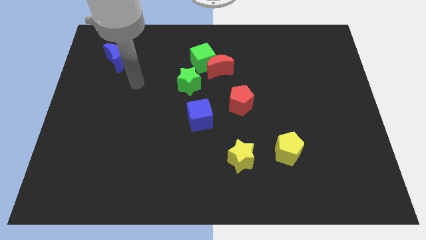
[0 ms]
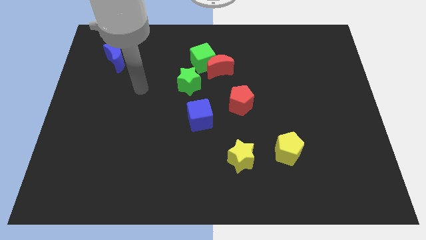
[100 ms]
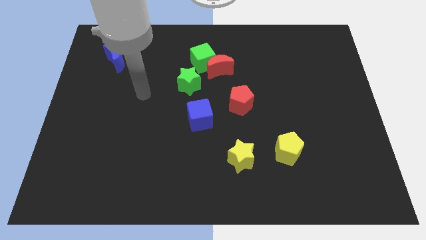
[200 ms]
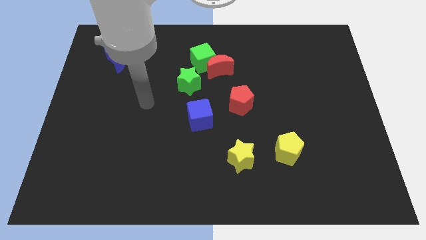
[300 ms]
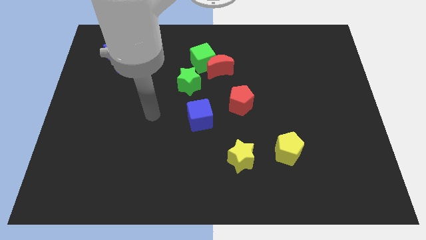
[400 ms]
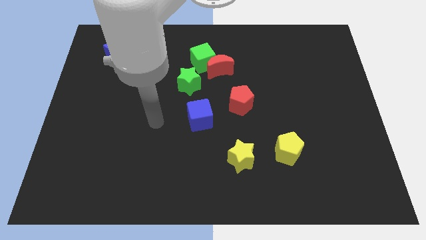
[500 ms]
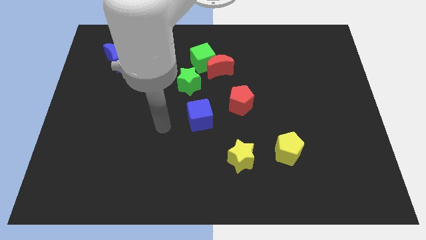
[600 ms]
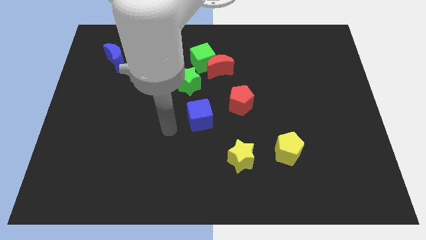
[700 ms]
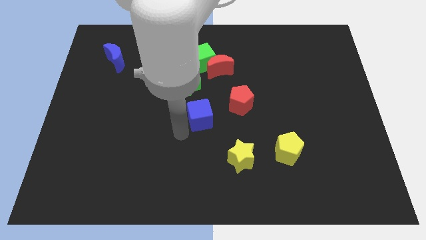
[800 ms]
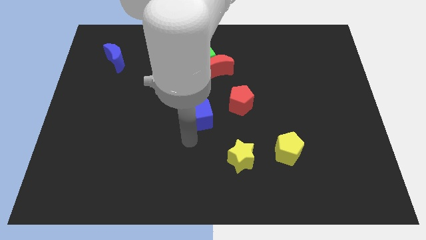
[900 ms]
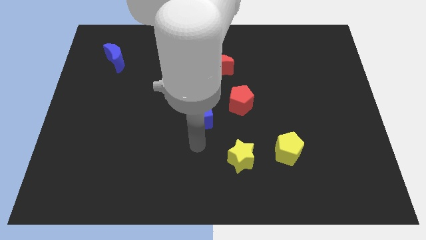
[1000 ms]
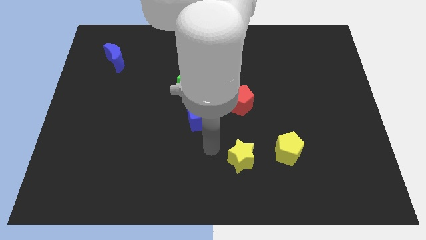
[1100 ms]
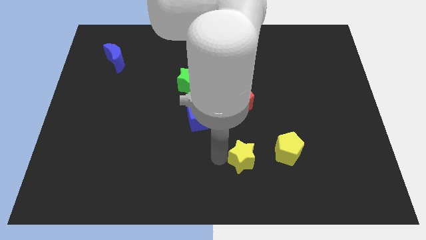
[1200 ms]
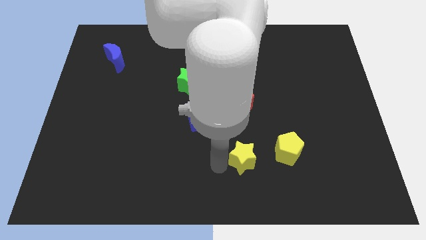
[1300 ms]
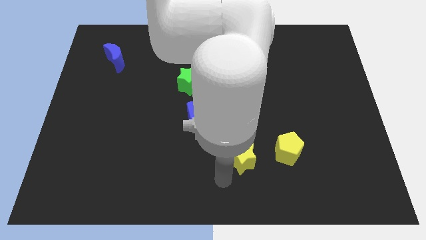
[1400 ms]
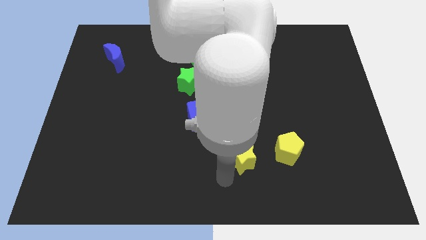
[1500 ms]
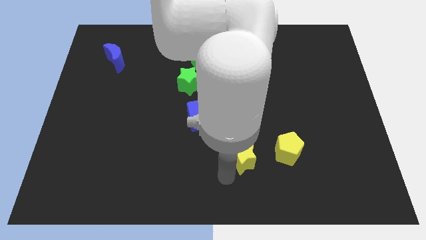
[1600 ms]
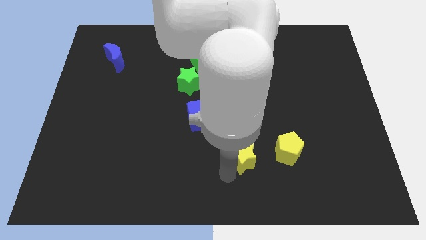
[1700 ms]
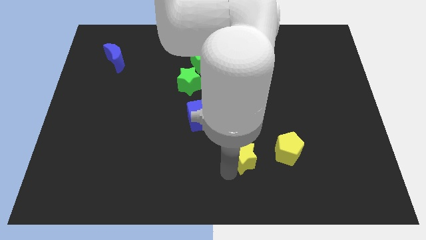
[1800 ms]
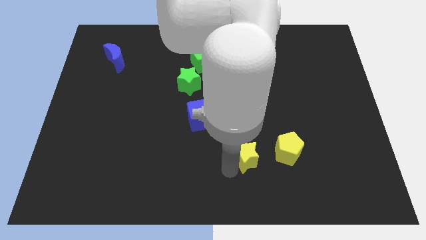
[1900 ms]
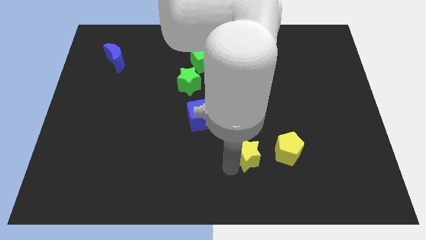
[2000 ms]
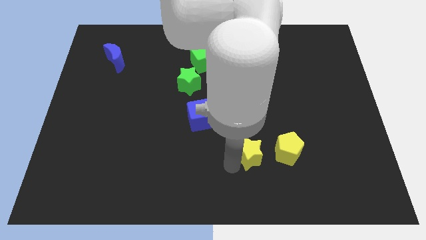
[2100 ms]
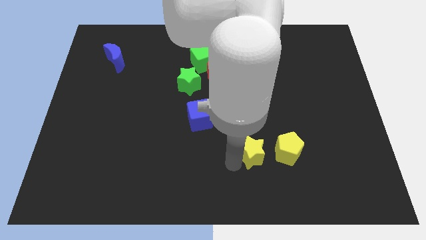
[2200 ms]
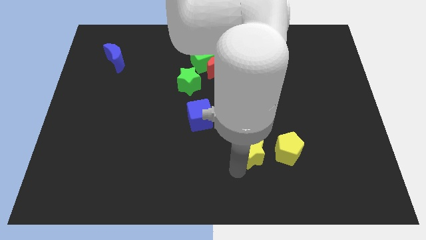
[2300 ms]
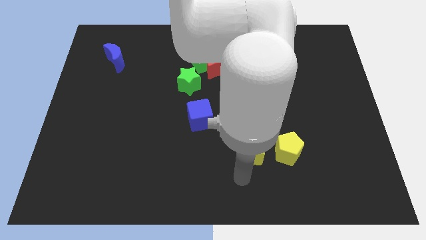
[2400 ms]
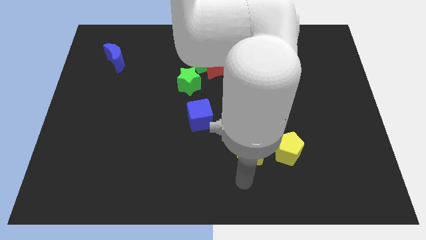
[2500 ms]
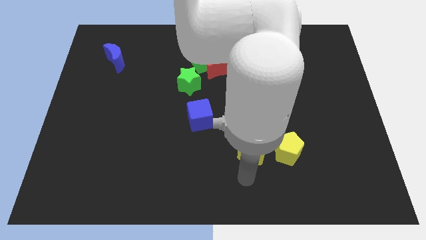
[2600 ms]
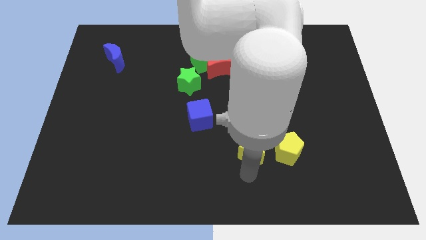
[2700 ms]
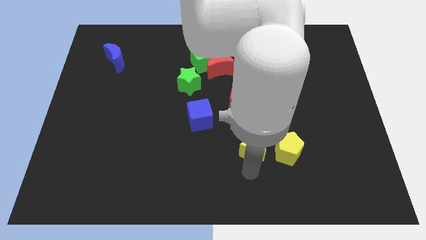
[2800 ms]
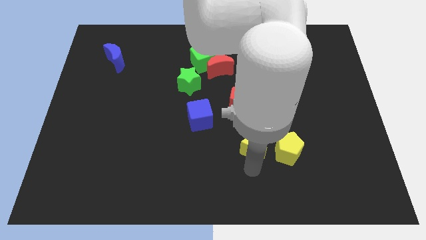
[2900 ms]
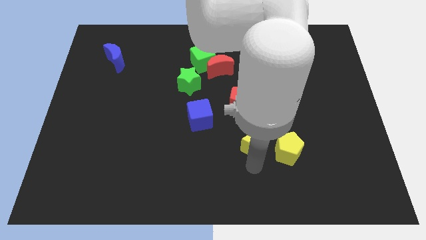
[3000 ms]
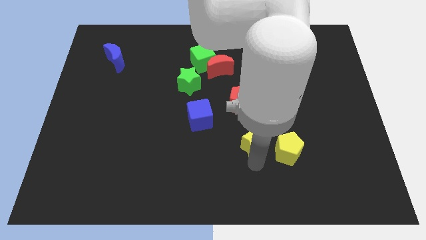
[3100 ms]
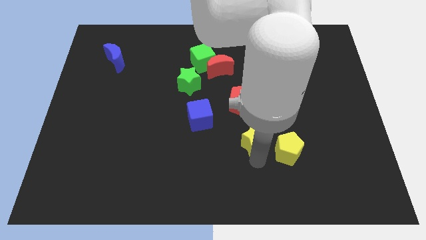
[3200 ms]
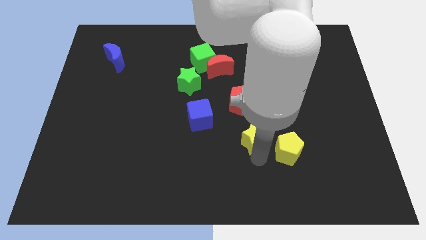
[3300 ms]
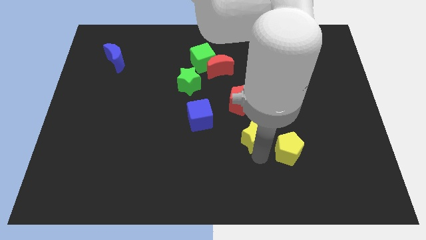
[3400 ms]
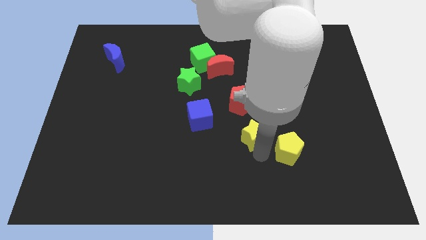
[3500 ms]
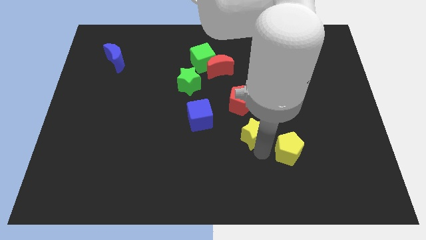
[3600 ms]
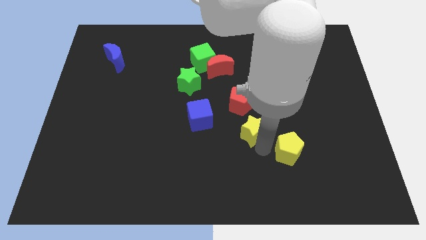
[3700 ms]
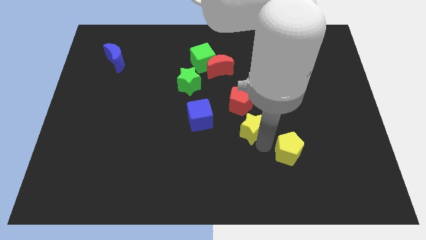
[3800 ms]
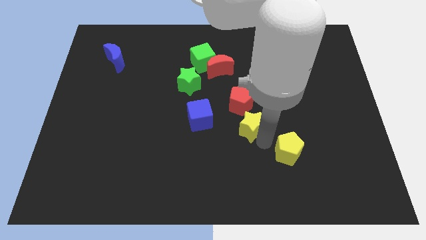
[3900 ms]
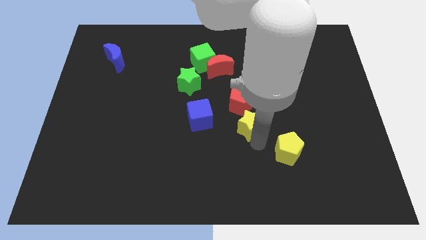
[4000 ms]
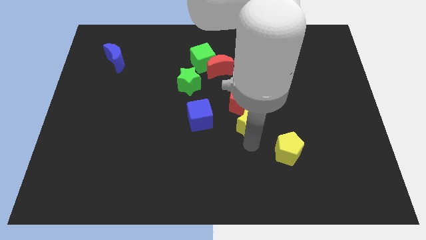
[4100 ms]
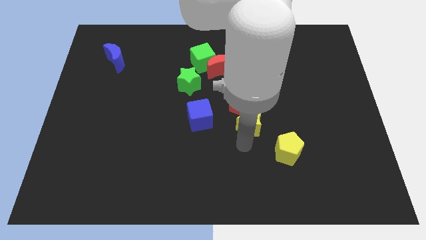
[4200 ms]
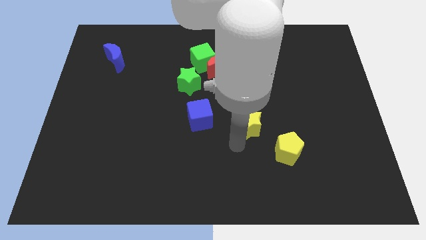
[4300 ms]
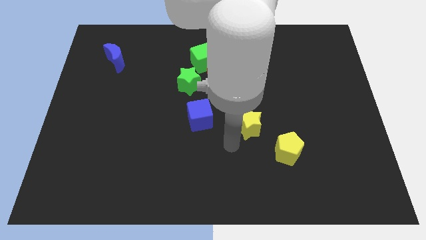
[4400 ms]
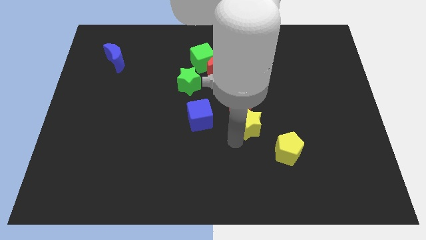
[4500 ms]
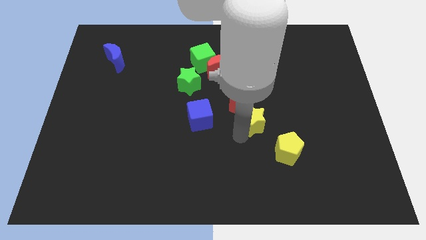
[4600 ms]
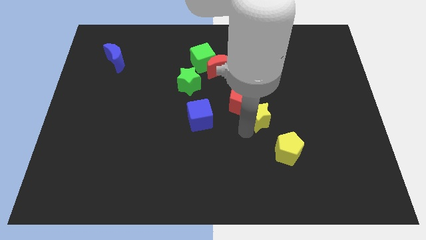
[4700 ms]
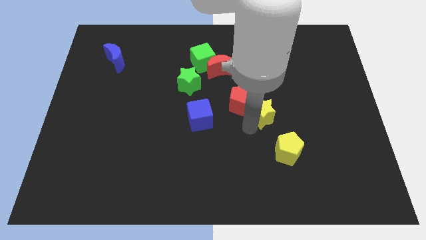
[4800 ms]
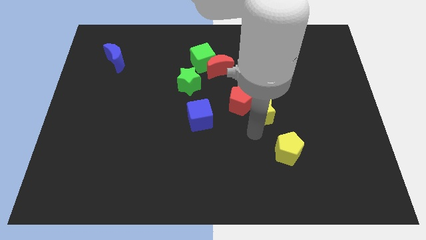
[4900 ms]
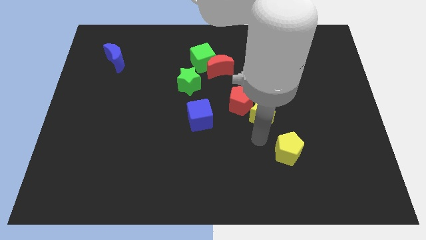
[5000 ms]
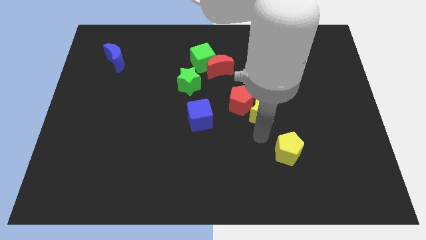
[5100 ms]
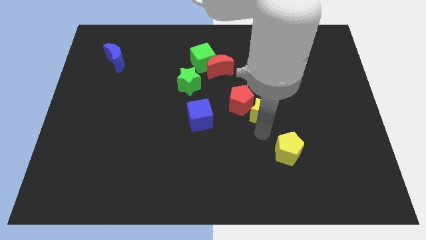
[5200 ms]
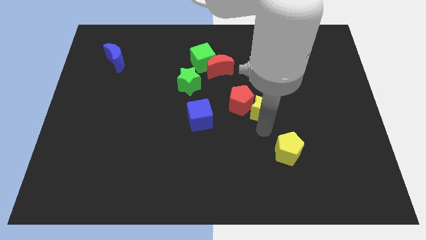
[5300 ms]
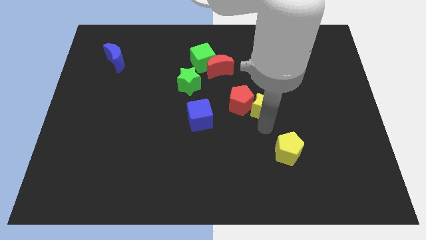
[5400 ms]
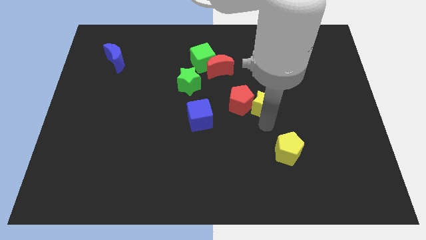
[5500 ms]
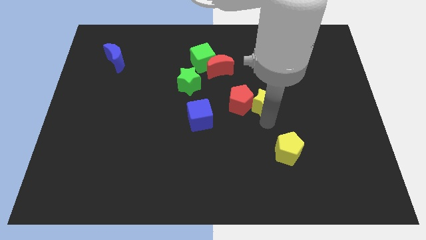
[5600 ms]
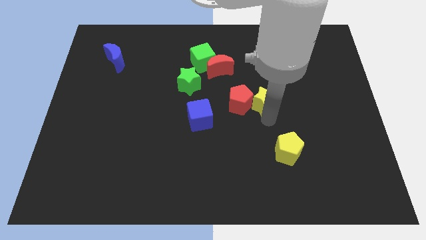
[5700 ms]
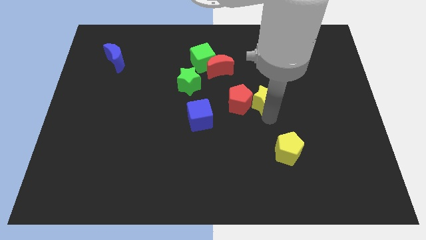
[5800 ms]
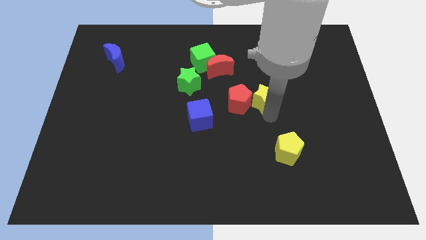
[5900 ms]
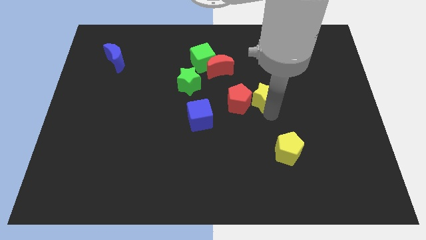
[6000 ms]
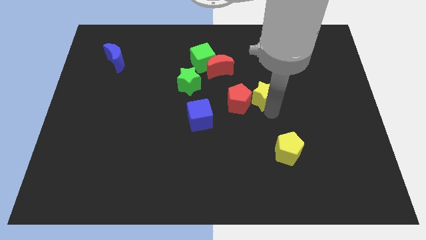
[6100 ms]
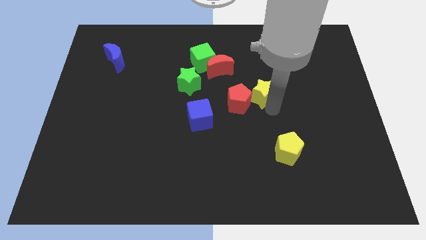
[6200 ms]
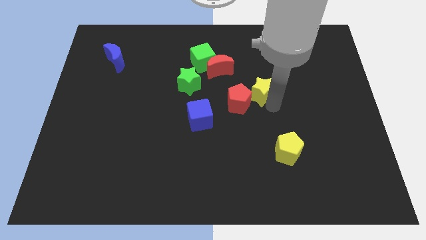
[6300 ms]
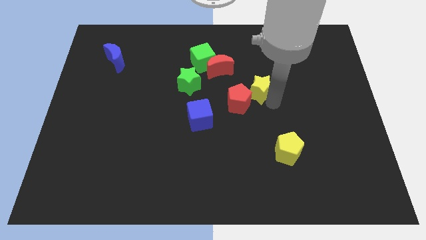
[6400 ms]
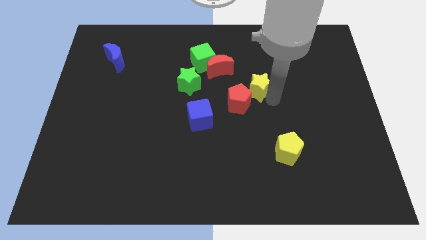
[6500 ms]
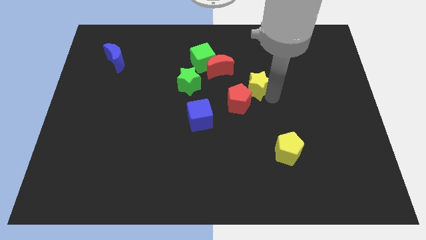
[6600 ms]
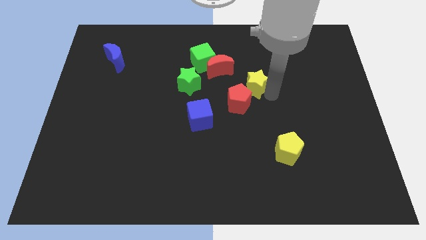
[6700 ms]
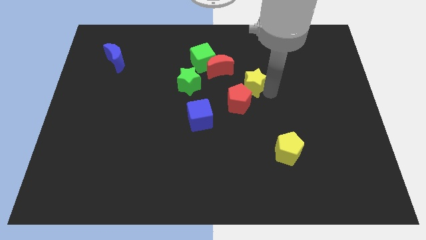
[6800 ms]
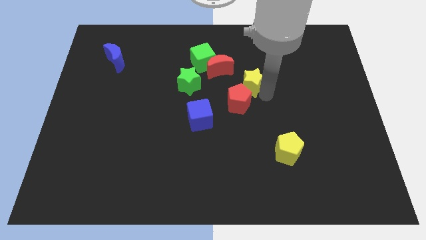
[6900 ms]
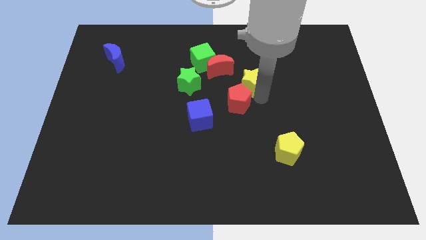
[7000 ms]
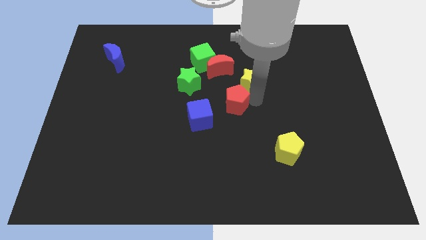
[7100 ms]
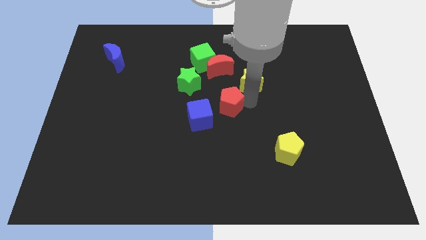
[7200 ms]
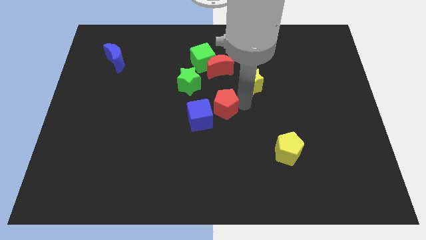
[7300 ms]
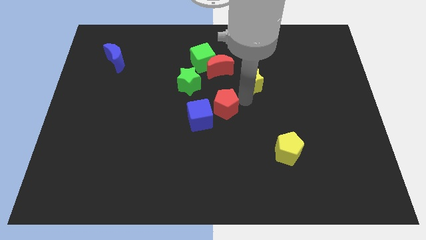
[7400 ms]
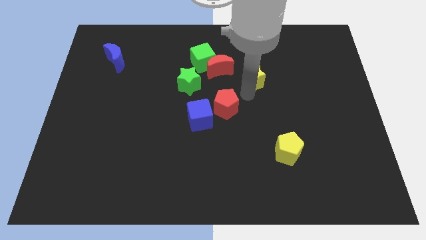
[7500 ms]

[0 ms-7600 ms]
push the yellow star to the right side of the red moon
